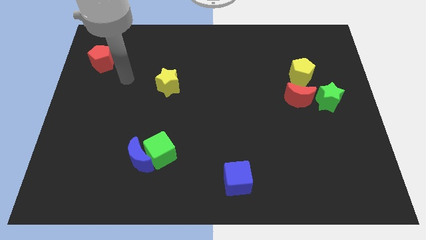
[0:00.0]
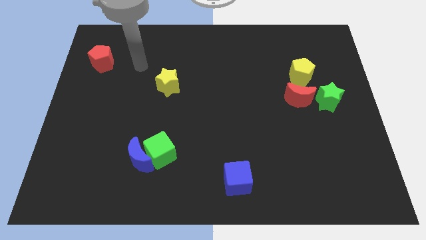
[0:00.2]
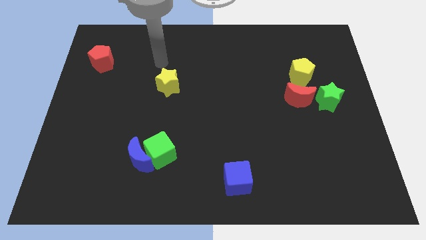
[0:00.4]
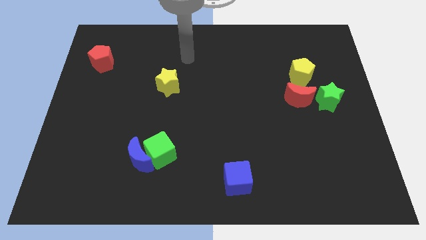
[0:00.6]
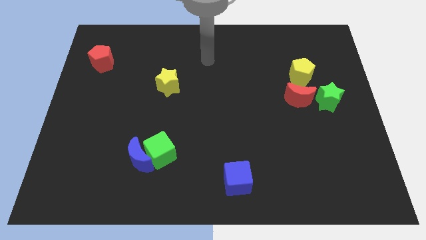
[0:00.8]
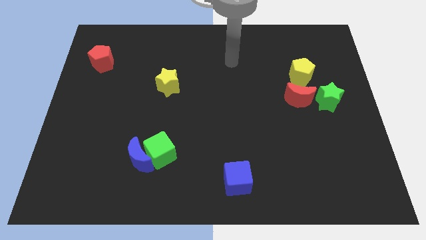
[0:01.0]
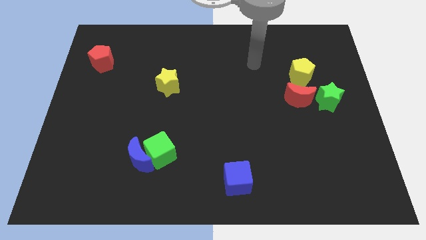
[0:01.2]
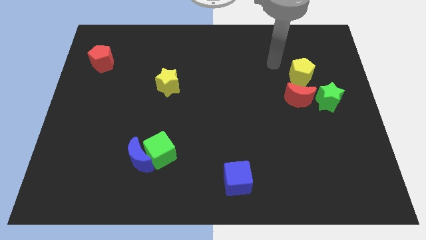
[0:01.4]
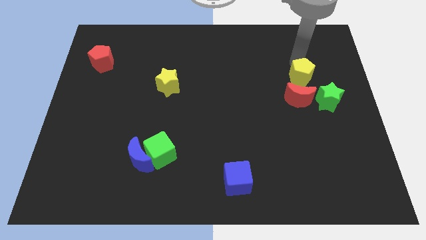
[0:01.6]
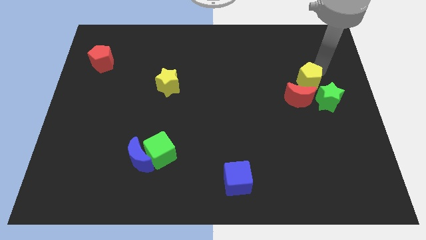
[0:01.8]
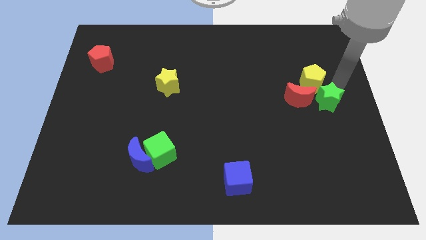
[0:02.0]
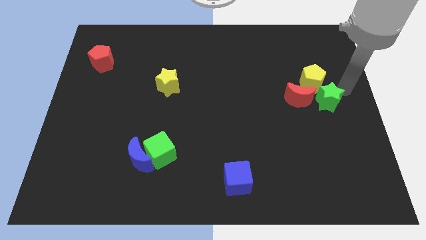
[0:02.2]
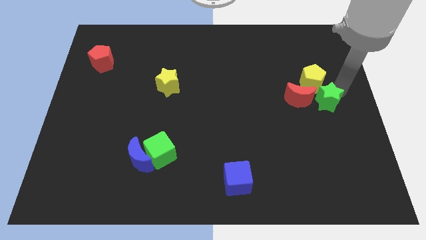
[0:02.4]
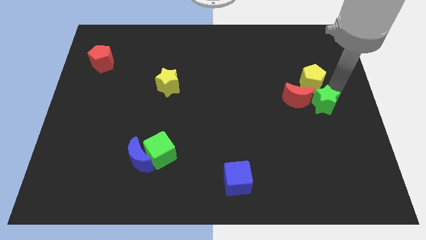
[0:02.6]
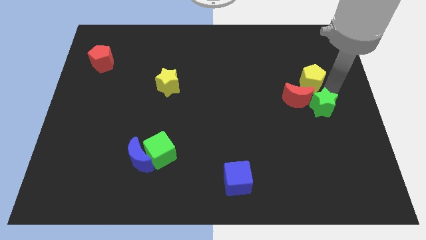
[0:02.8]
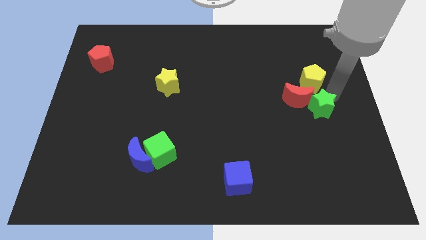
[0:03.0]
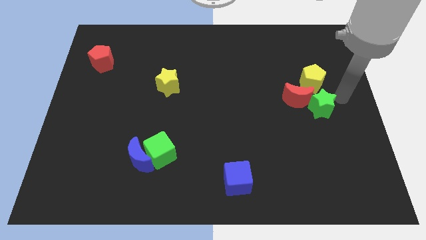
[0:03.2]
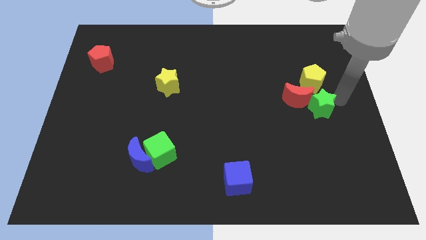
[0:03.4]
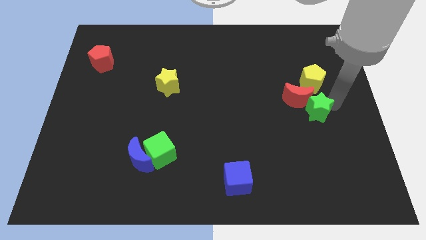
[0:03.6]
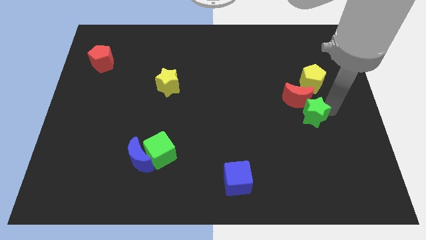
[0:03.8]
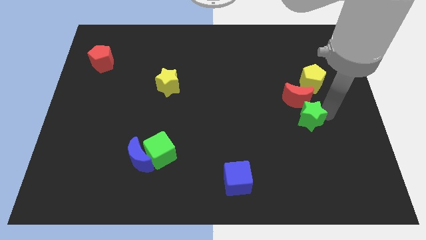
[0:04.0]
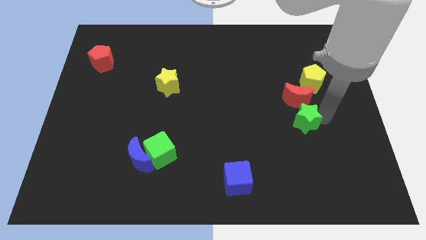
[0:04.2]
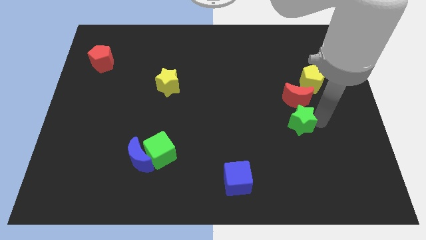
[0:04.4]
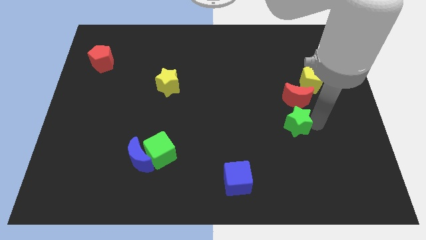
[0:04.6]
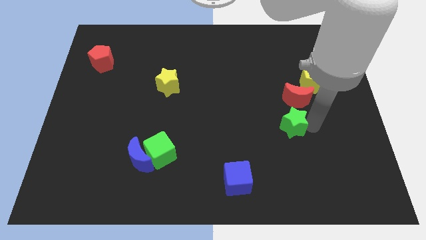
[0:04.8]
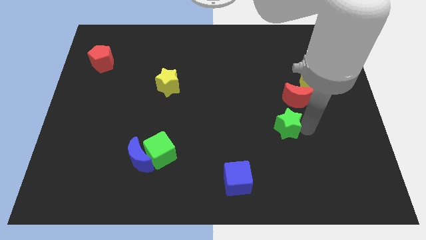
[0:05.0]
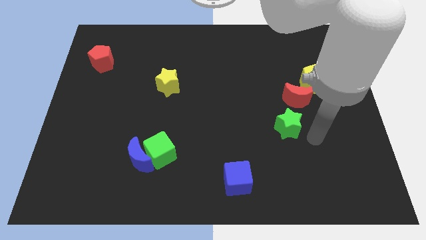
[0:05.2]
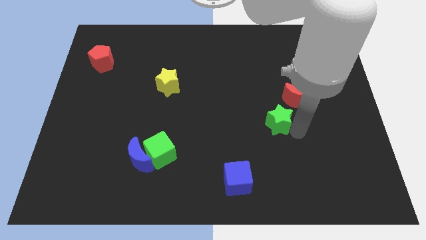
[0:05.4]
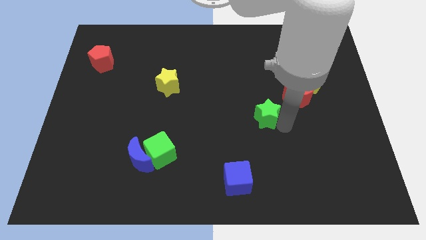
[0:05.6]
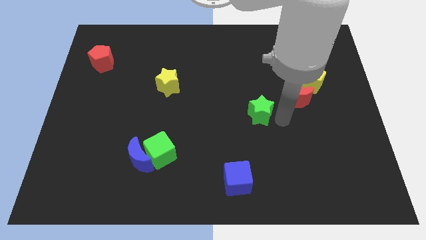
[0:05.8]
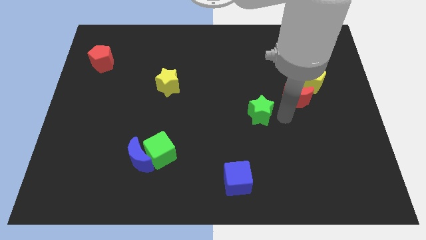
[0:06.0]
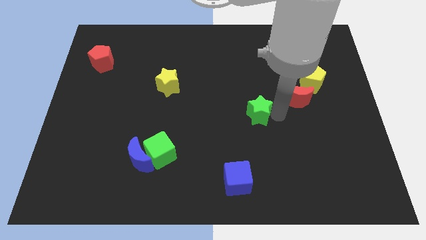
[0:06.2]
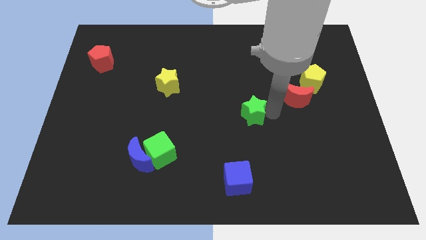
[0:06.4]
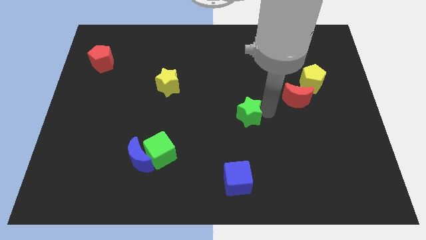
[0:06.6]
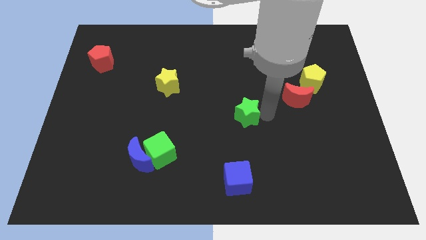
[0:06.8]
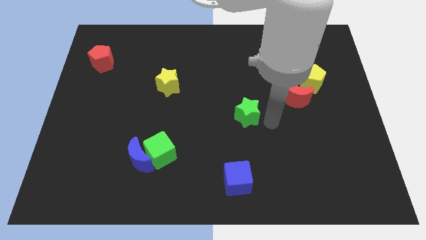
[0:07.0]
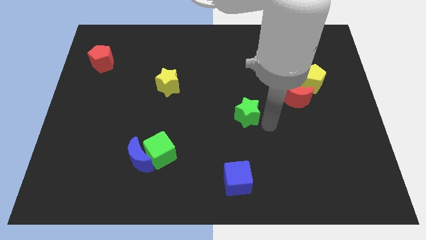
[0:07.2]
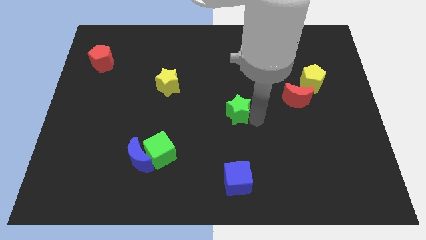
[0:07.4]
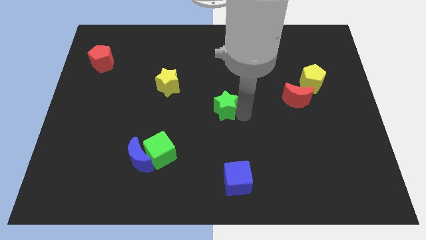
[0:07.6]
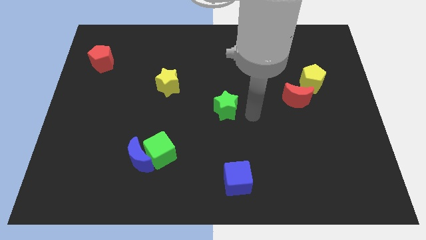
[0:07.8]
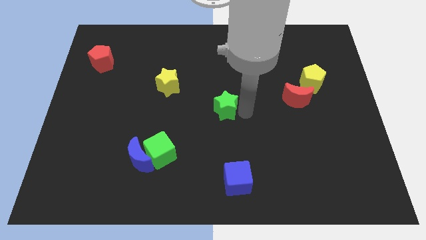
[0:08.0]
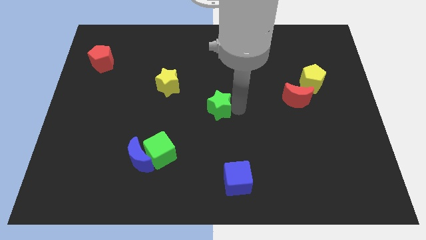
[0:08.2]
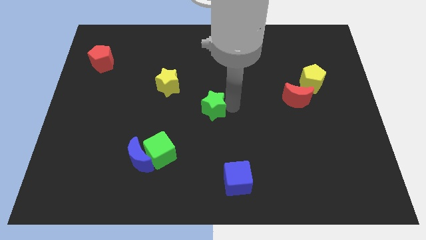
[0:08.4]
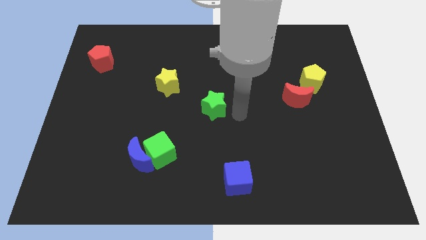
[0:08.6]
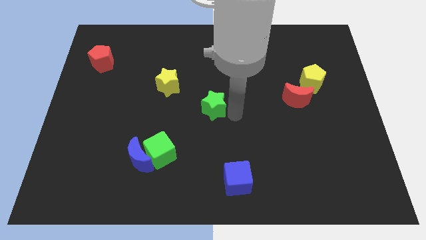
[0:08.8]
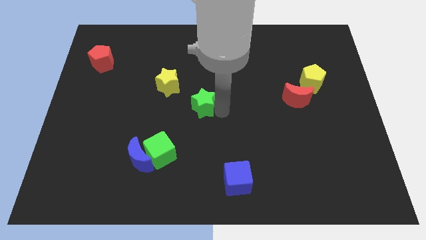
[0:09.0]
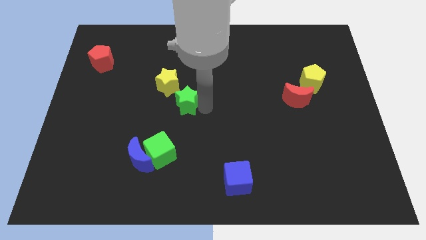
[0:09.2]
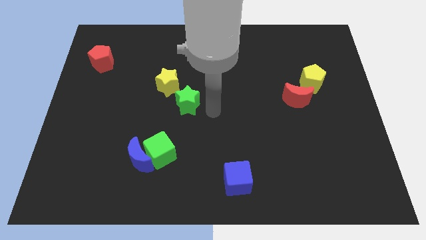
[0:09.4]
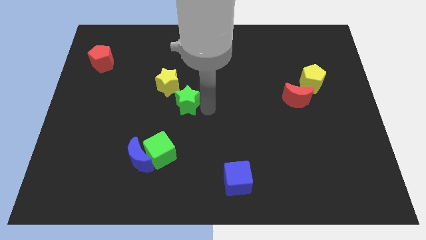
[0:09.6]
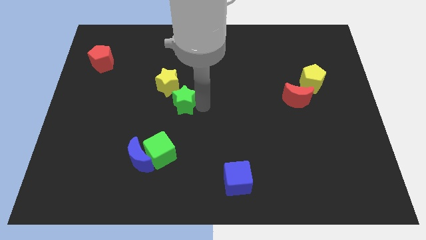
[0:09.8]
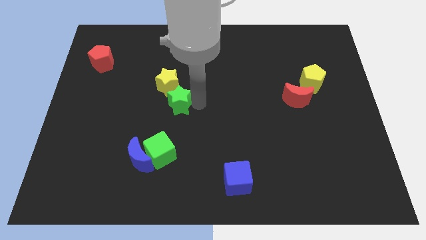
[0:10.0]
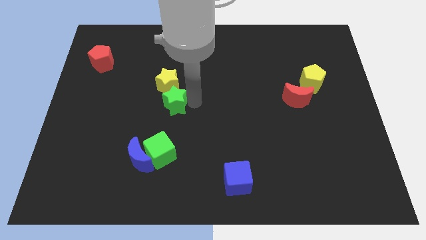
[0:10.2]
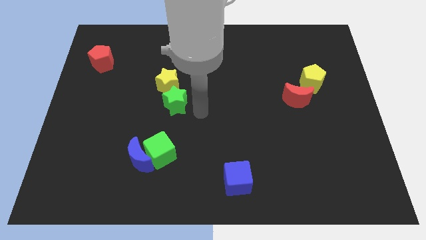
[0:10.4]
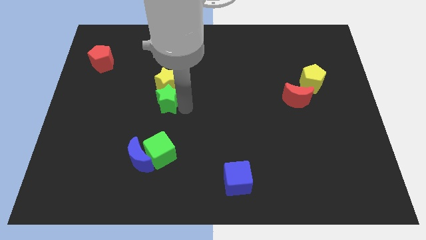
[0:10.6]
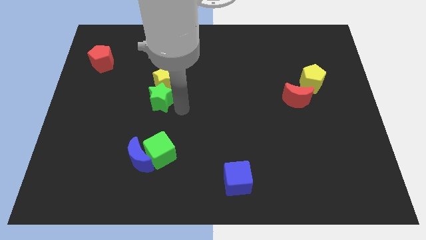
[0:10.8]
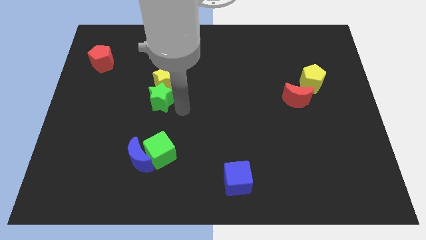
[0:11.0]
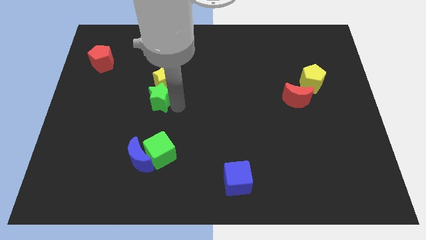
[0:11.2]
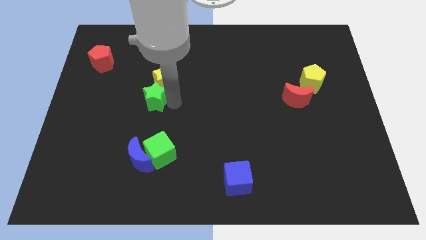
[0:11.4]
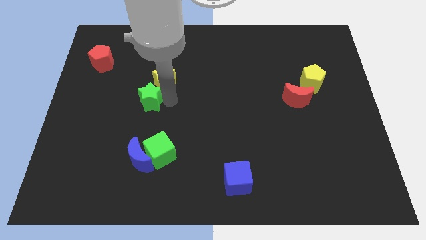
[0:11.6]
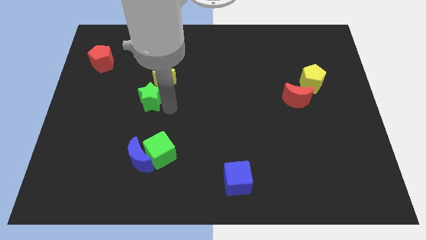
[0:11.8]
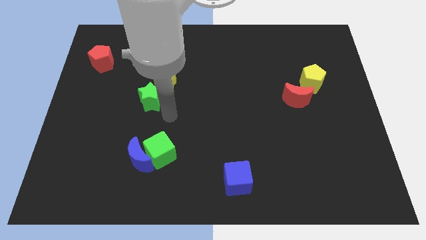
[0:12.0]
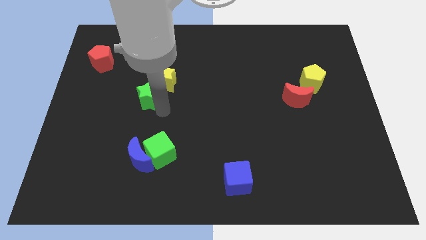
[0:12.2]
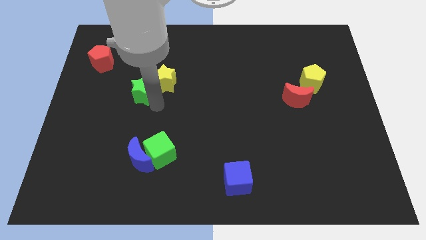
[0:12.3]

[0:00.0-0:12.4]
push the green star to the left side of the yellow star

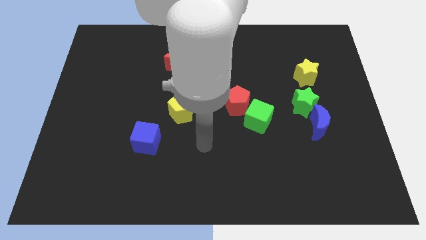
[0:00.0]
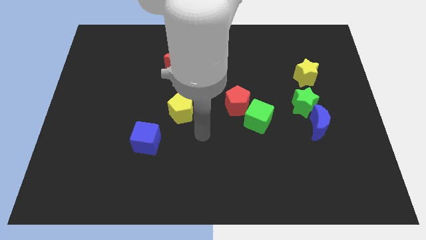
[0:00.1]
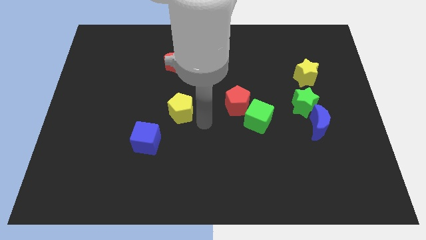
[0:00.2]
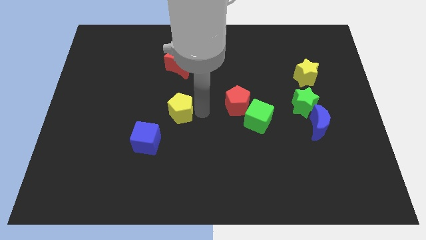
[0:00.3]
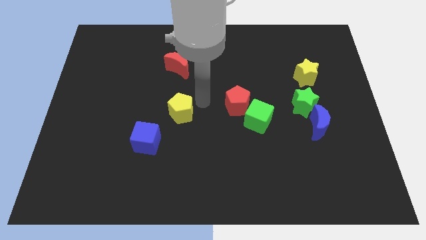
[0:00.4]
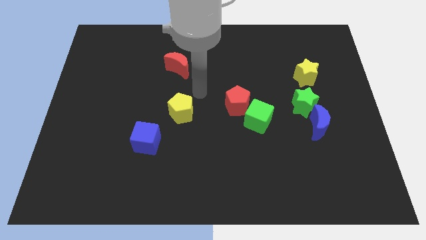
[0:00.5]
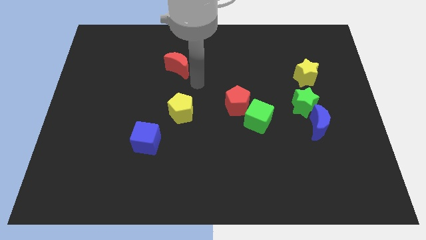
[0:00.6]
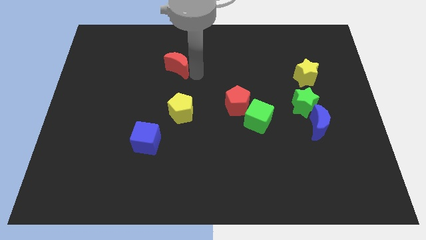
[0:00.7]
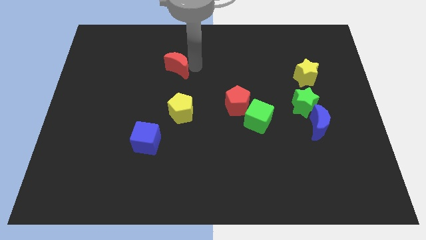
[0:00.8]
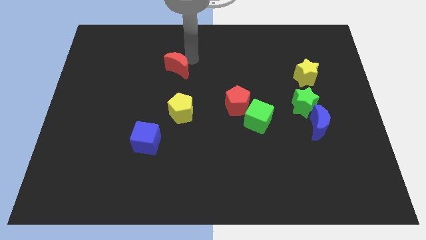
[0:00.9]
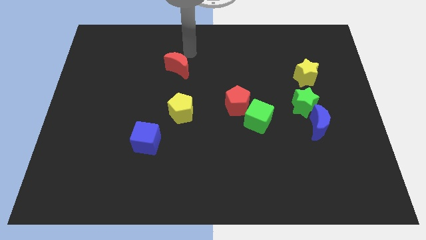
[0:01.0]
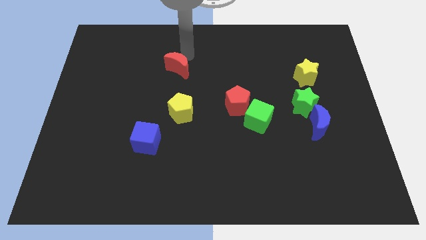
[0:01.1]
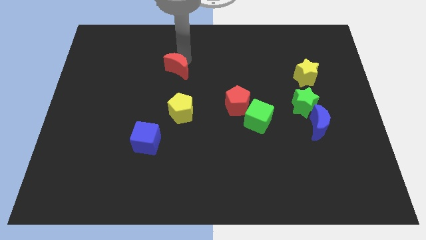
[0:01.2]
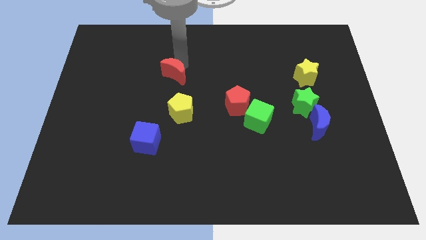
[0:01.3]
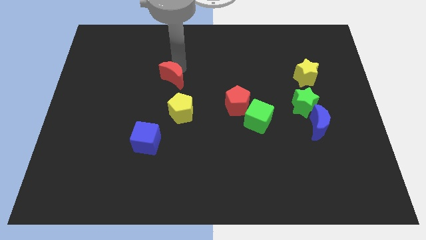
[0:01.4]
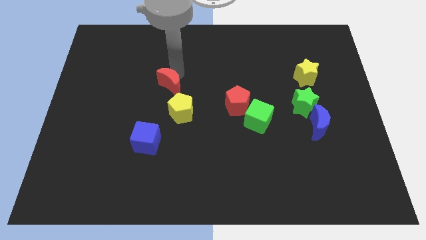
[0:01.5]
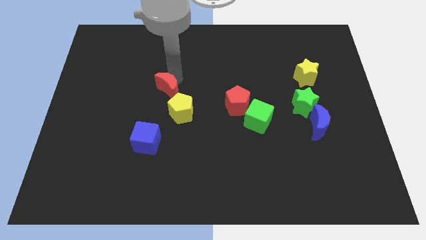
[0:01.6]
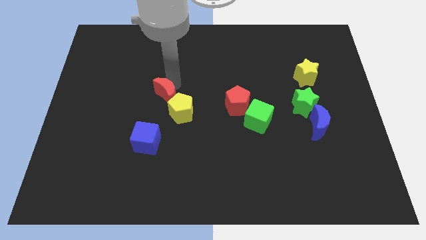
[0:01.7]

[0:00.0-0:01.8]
push the red moon above the blue cube
